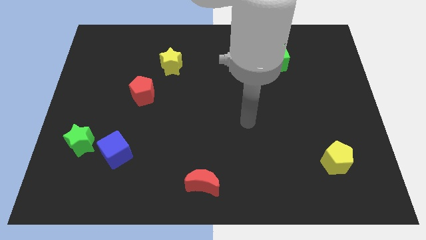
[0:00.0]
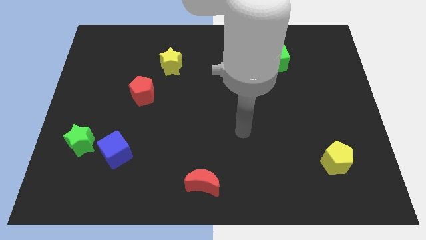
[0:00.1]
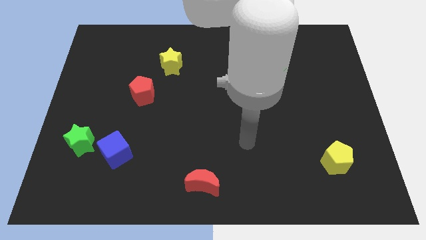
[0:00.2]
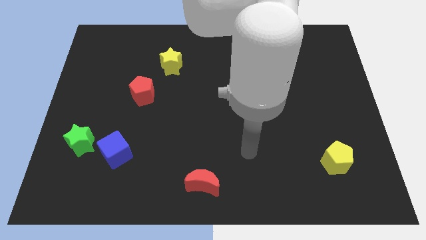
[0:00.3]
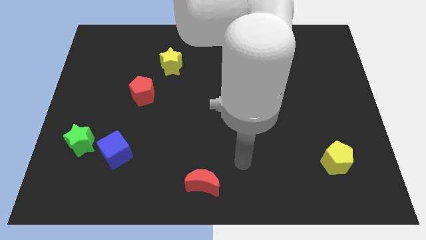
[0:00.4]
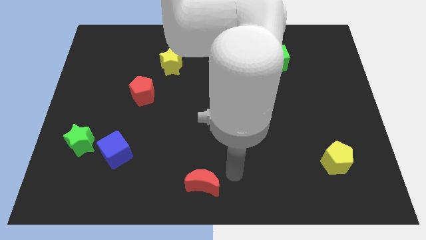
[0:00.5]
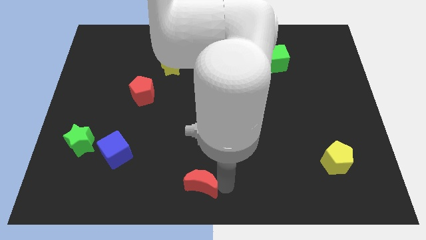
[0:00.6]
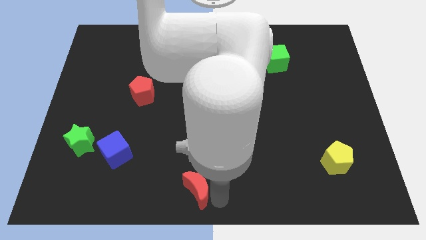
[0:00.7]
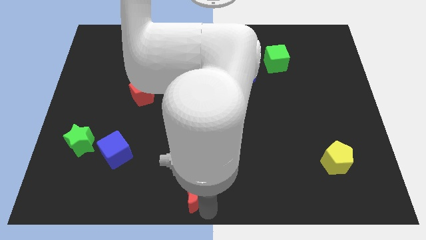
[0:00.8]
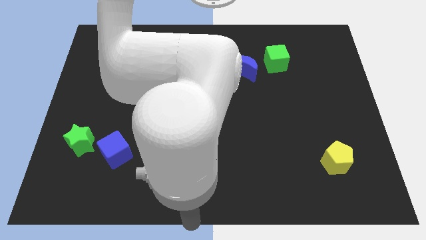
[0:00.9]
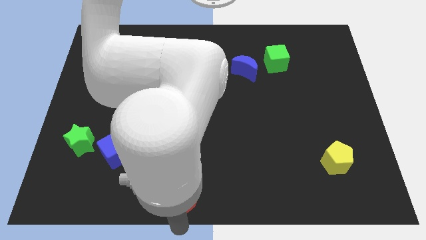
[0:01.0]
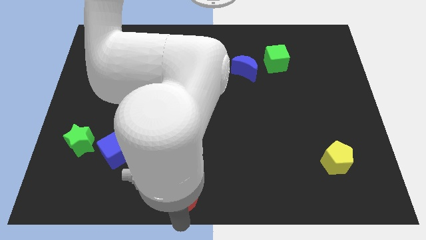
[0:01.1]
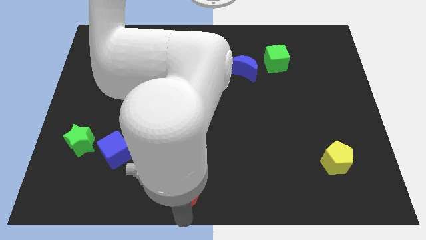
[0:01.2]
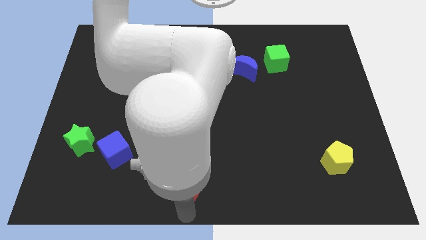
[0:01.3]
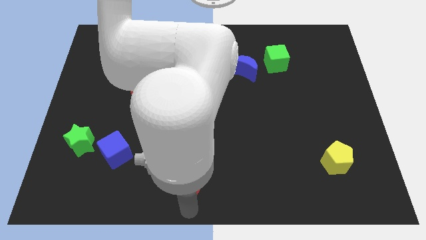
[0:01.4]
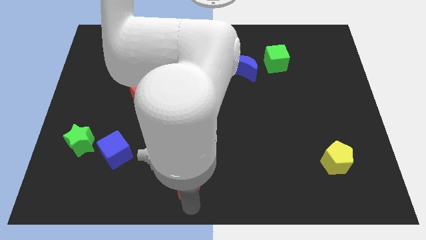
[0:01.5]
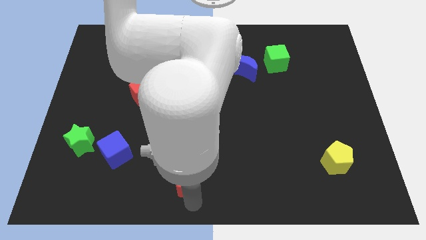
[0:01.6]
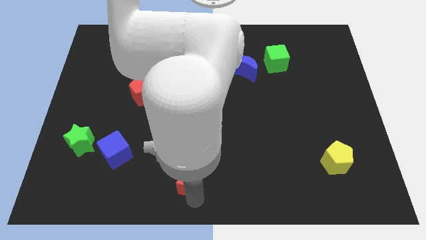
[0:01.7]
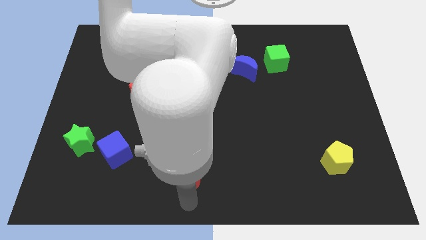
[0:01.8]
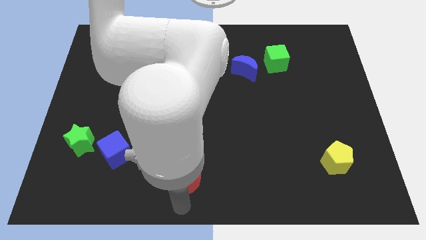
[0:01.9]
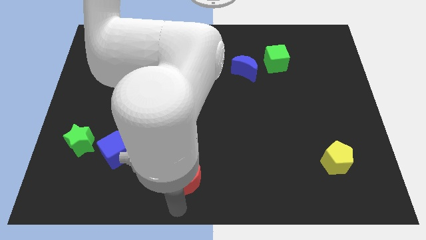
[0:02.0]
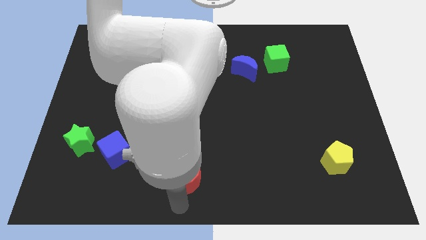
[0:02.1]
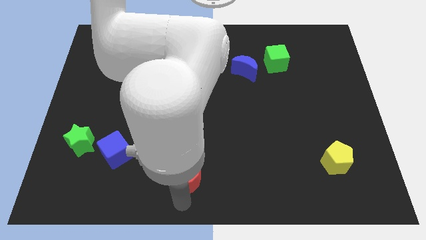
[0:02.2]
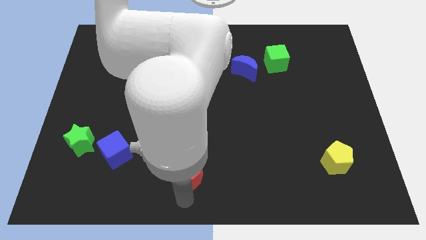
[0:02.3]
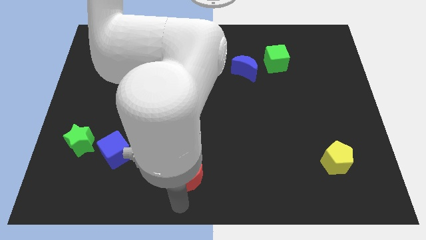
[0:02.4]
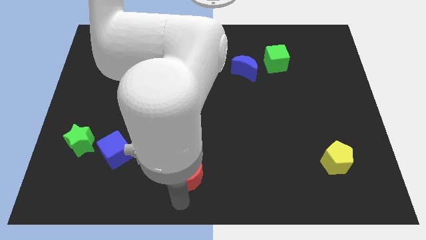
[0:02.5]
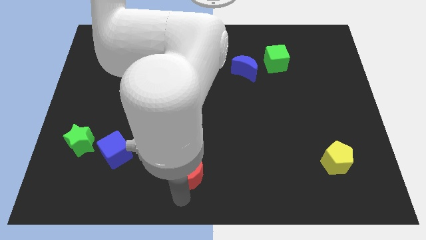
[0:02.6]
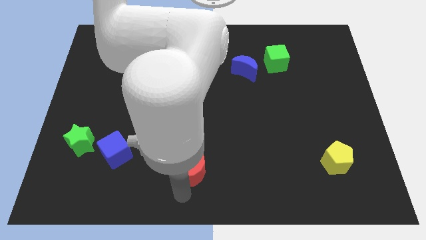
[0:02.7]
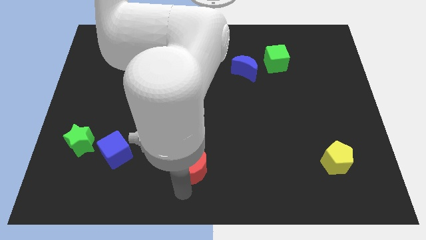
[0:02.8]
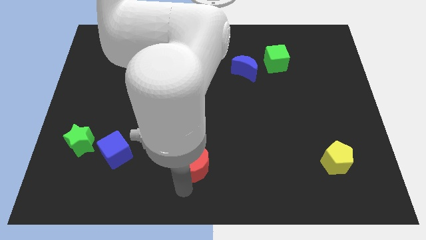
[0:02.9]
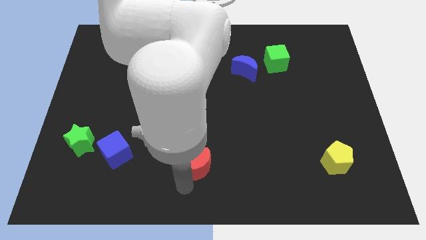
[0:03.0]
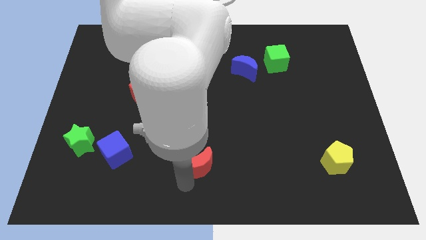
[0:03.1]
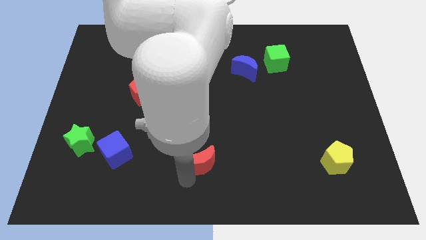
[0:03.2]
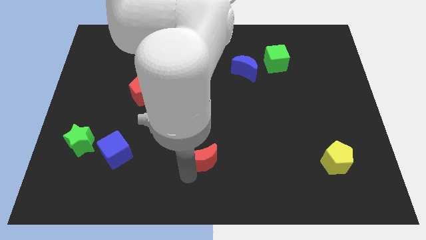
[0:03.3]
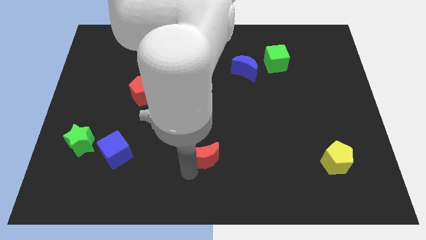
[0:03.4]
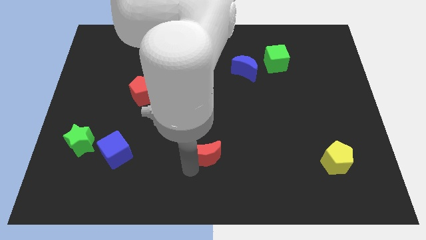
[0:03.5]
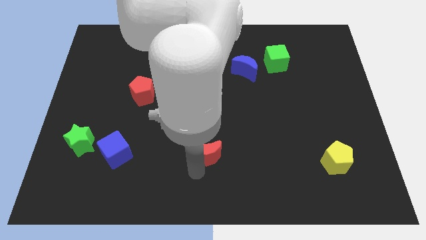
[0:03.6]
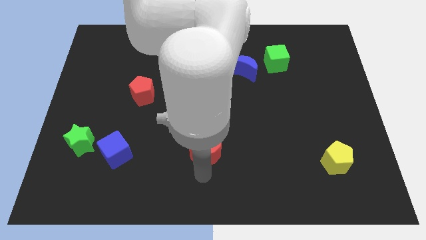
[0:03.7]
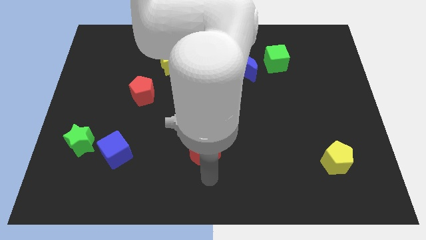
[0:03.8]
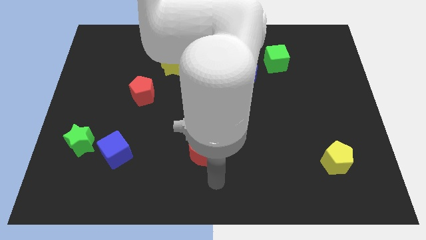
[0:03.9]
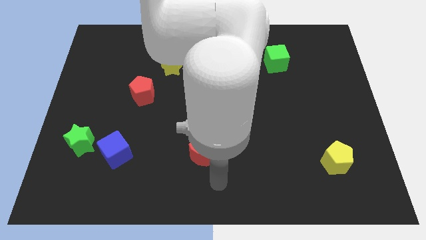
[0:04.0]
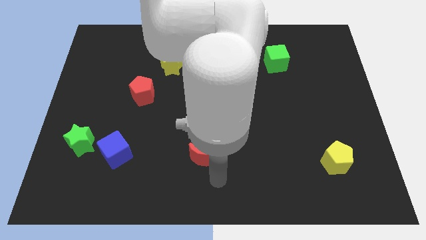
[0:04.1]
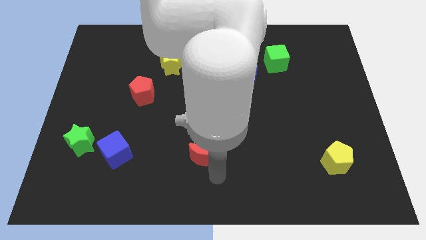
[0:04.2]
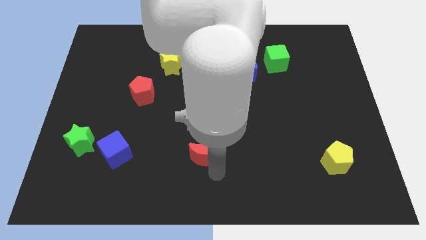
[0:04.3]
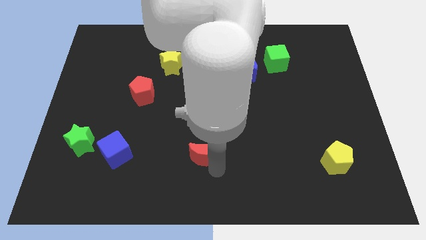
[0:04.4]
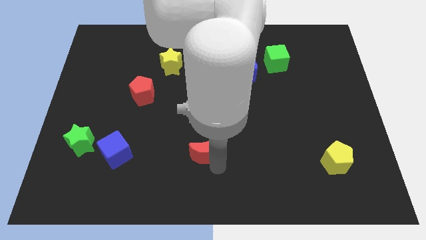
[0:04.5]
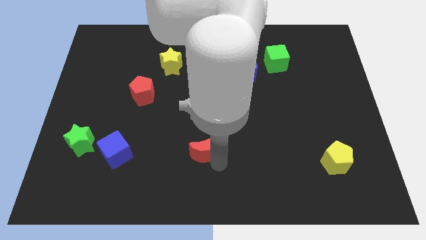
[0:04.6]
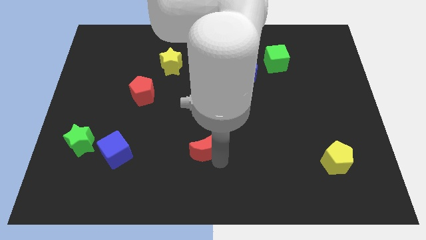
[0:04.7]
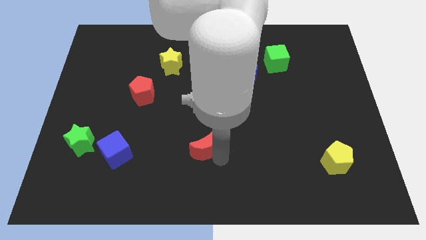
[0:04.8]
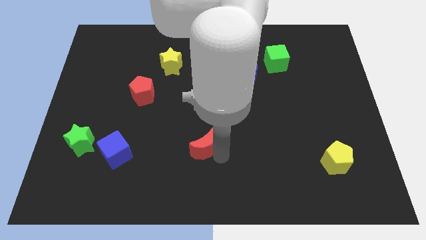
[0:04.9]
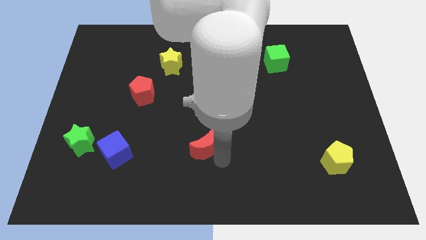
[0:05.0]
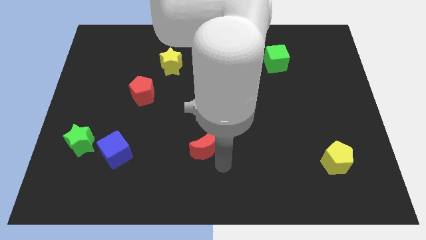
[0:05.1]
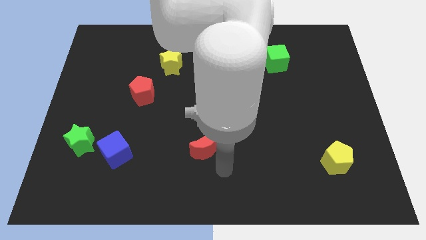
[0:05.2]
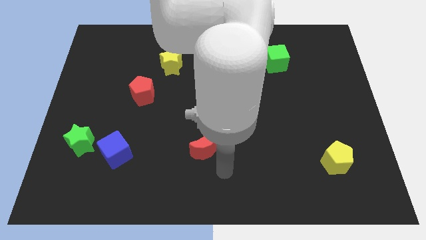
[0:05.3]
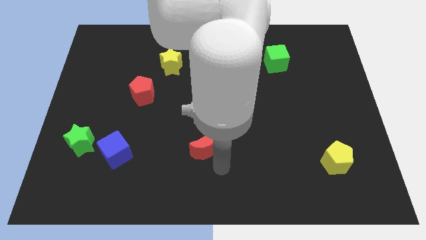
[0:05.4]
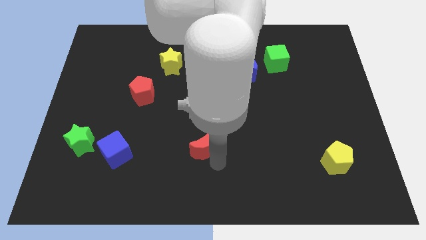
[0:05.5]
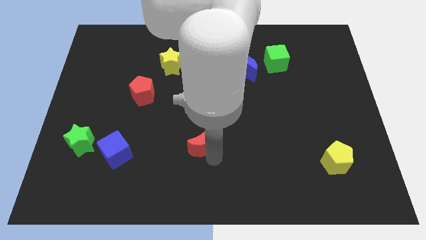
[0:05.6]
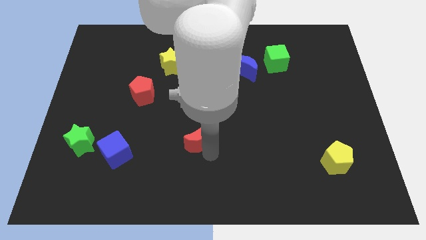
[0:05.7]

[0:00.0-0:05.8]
put the red moon to the middle

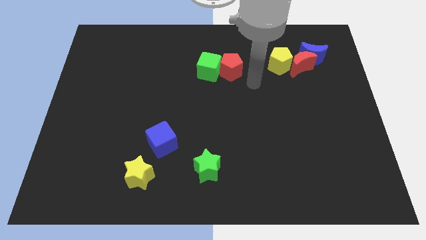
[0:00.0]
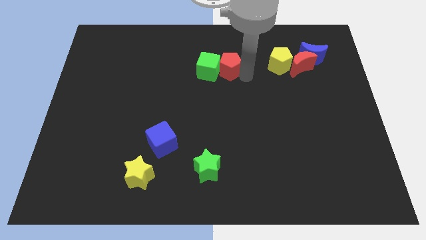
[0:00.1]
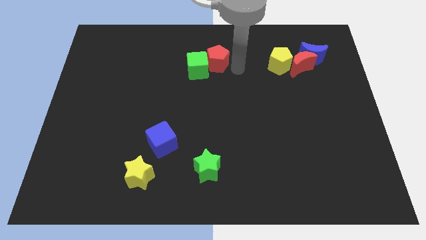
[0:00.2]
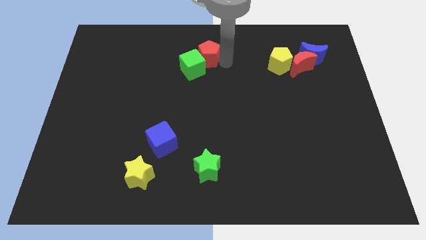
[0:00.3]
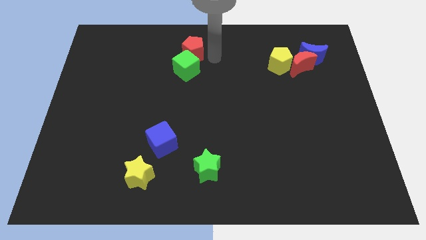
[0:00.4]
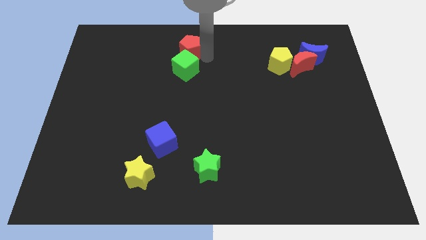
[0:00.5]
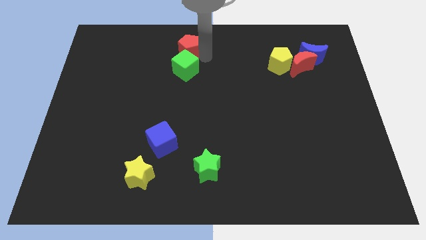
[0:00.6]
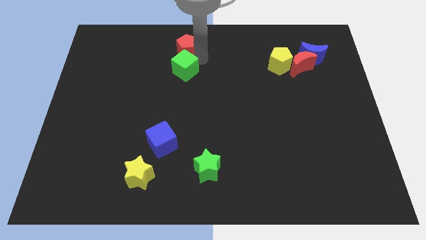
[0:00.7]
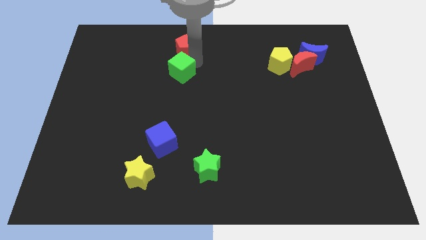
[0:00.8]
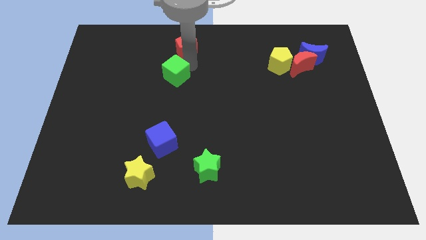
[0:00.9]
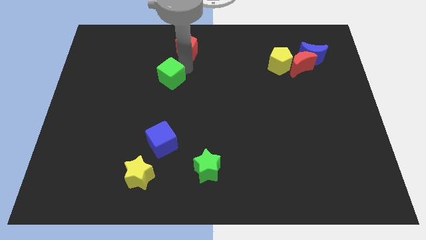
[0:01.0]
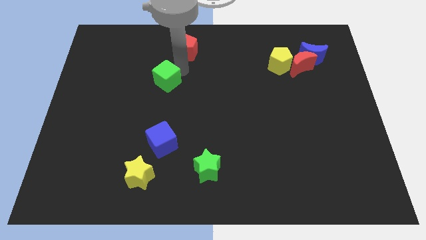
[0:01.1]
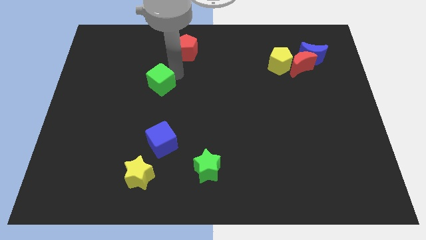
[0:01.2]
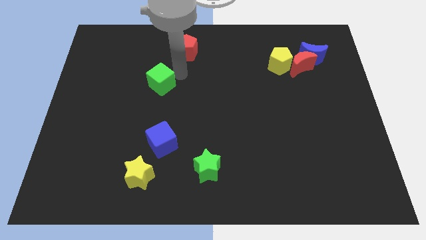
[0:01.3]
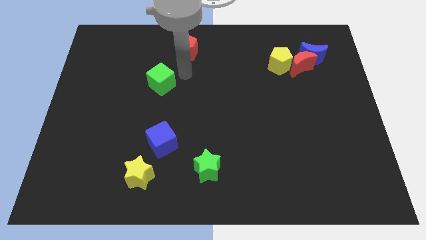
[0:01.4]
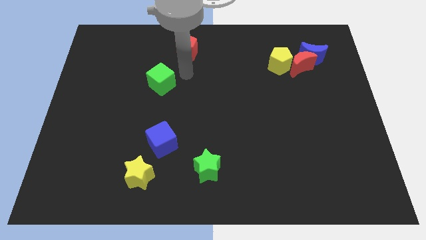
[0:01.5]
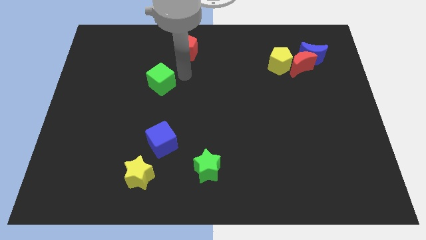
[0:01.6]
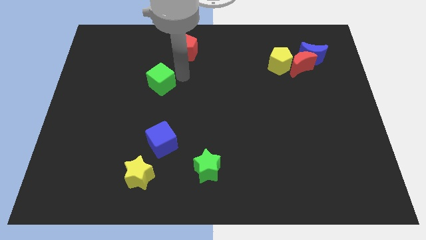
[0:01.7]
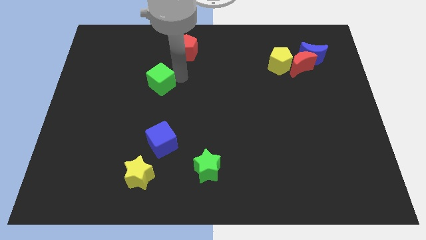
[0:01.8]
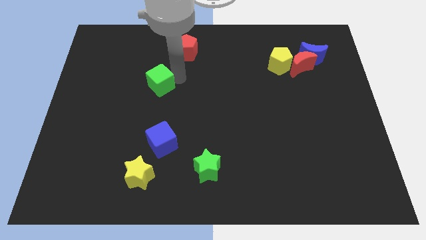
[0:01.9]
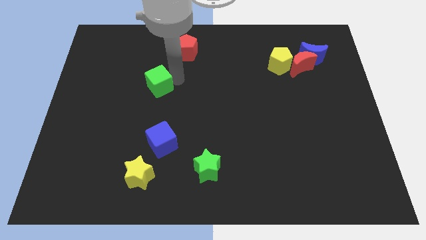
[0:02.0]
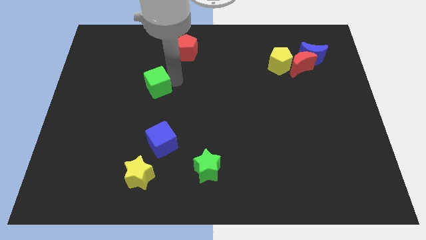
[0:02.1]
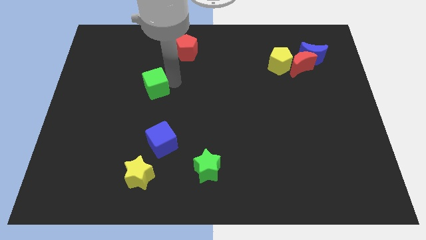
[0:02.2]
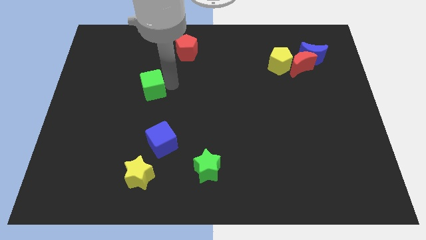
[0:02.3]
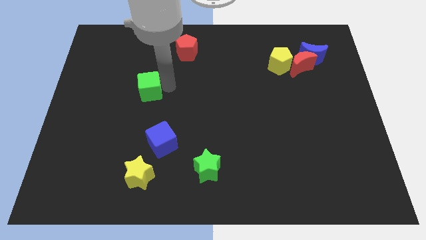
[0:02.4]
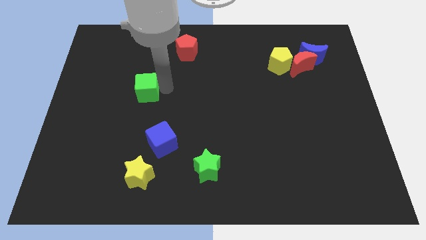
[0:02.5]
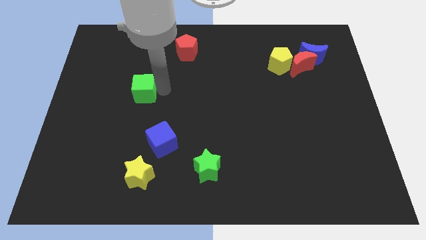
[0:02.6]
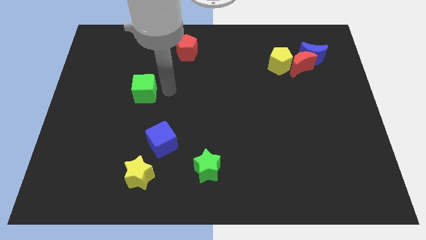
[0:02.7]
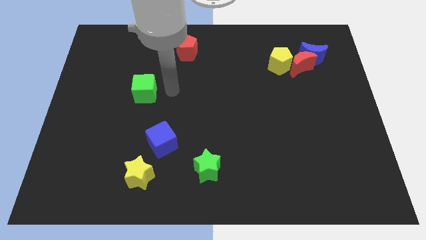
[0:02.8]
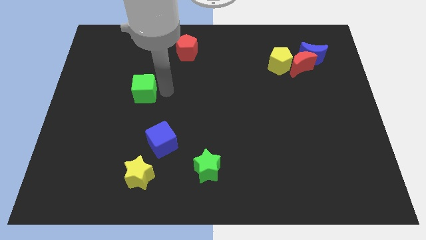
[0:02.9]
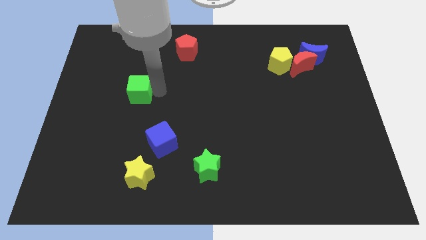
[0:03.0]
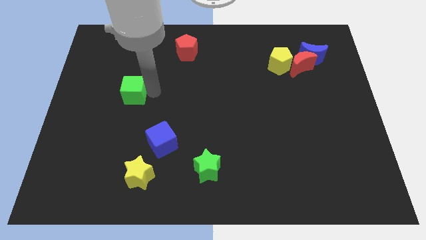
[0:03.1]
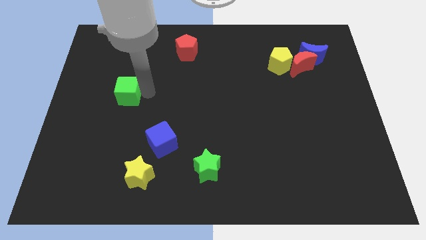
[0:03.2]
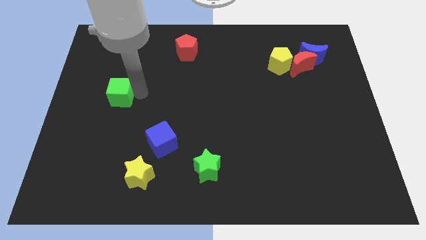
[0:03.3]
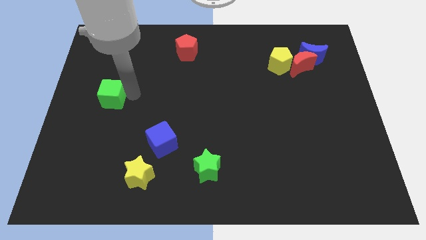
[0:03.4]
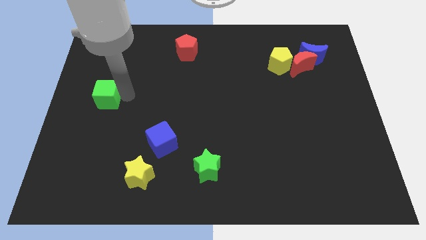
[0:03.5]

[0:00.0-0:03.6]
push the green cube to the center left
